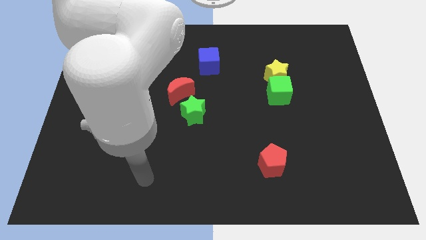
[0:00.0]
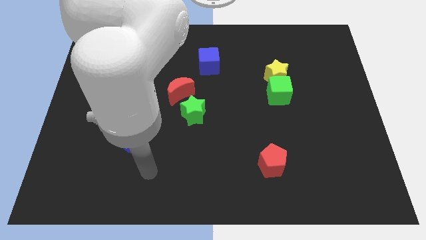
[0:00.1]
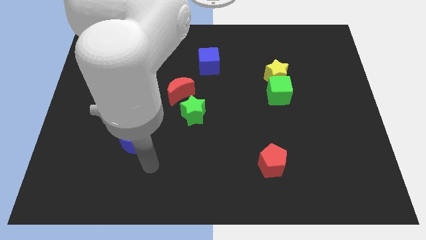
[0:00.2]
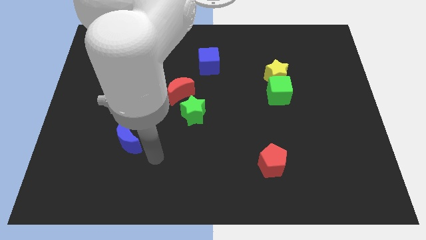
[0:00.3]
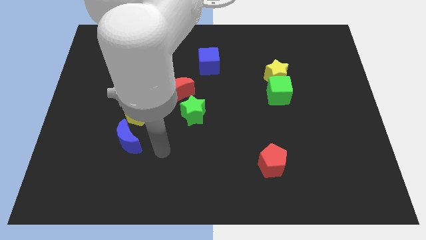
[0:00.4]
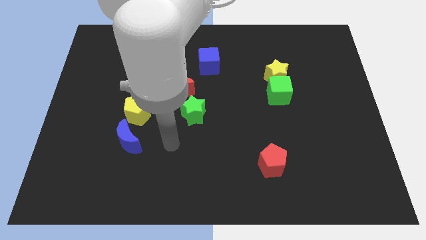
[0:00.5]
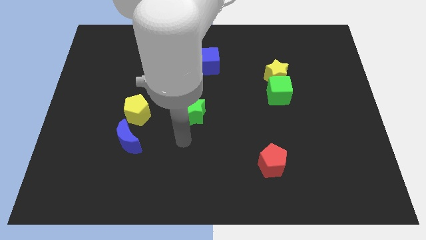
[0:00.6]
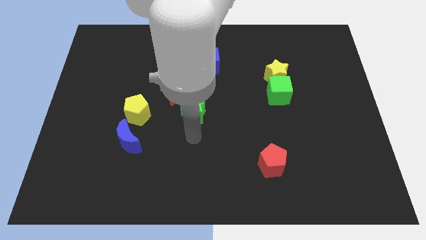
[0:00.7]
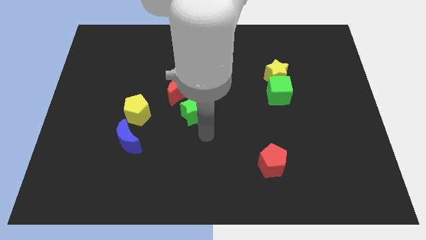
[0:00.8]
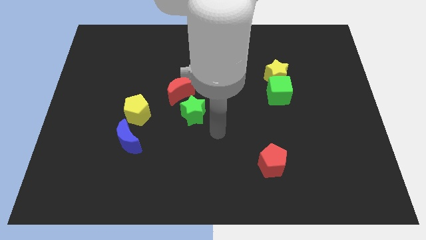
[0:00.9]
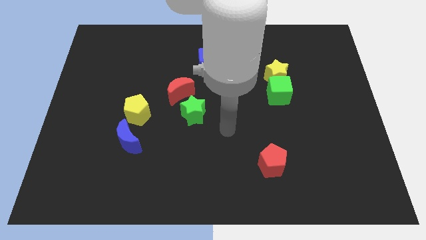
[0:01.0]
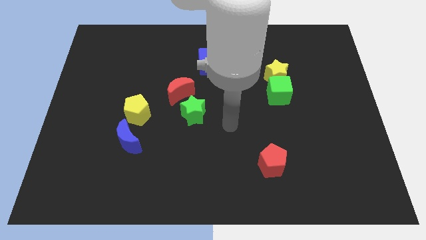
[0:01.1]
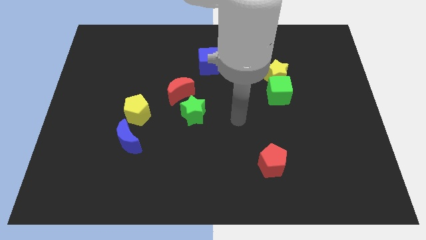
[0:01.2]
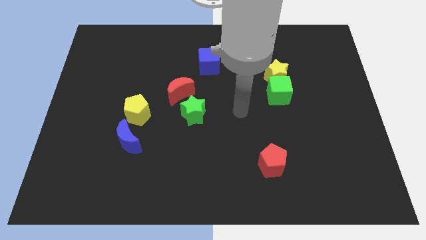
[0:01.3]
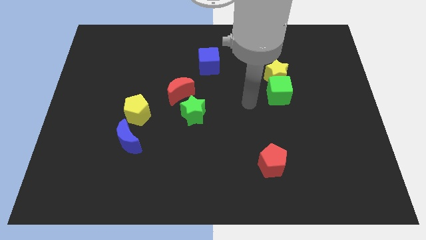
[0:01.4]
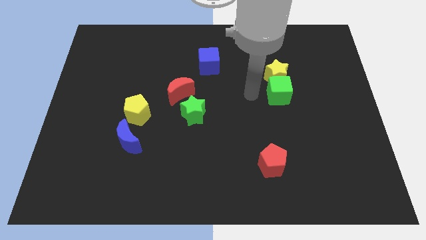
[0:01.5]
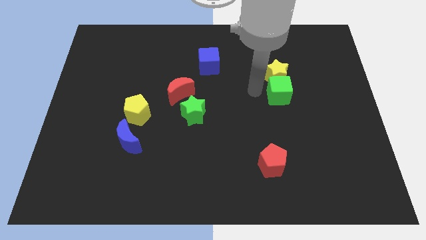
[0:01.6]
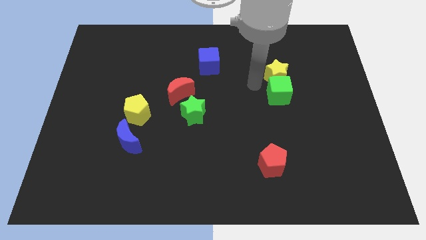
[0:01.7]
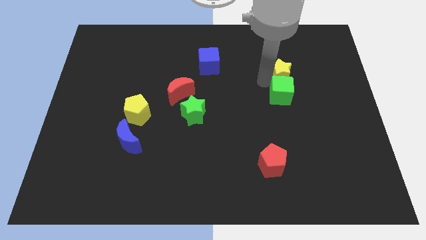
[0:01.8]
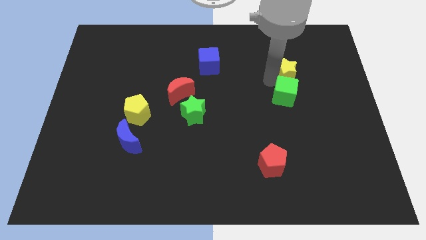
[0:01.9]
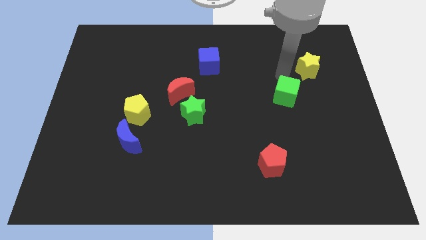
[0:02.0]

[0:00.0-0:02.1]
move the green cube away from the yellow star

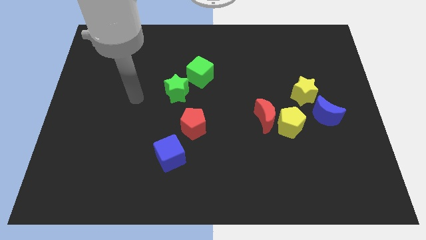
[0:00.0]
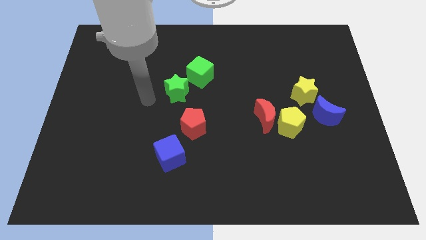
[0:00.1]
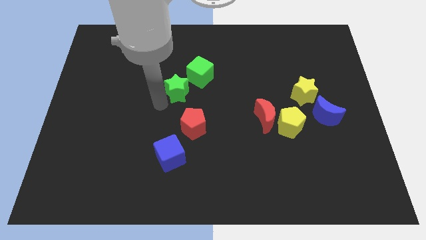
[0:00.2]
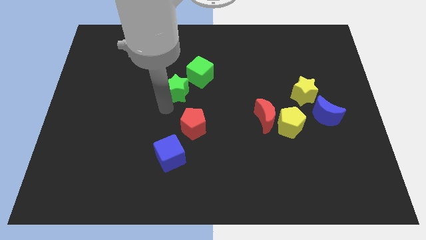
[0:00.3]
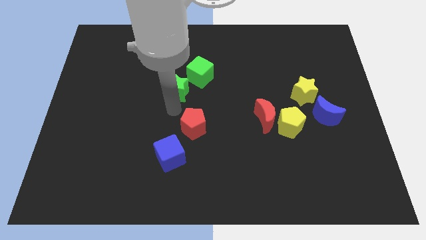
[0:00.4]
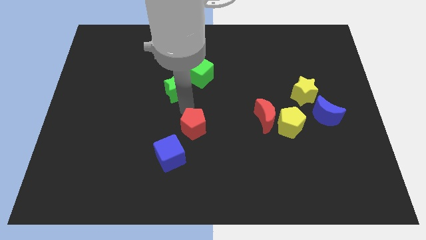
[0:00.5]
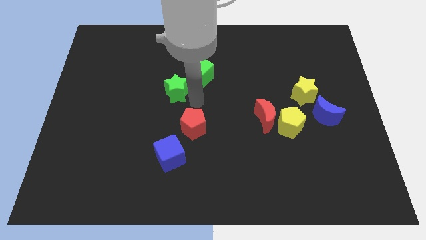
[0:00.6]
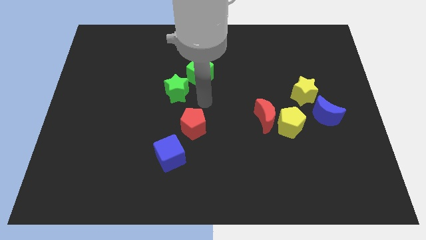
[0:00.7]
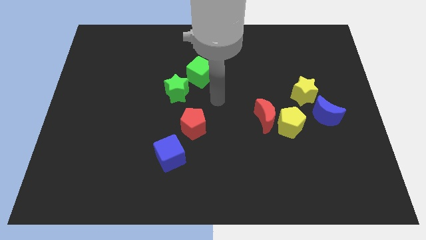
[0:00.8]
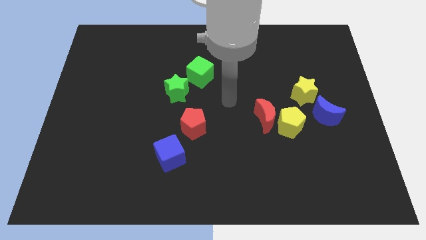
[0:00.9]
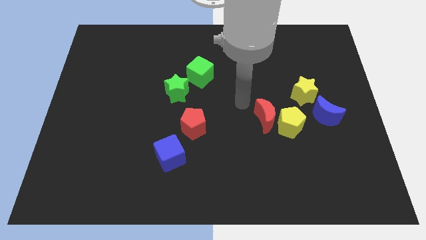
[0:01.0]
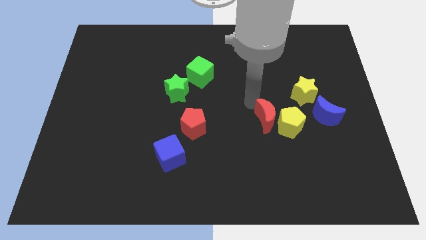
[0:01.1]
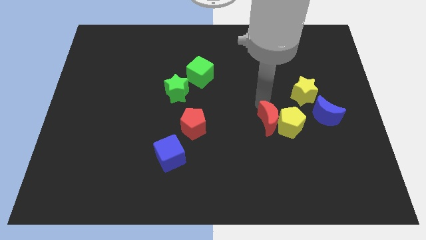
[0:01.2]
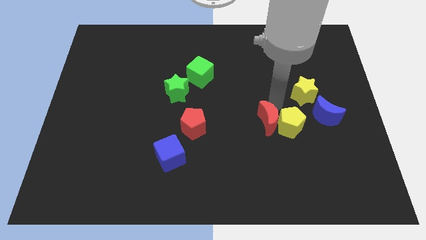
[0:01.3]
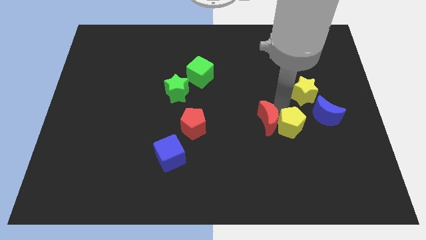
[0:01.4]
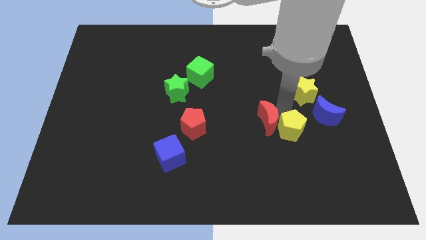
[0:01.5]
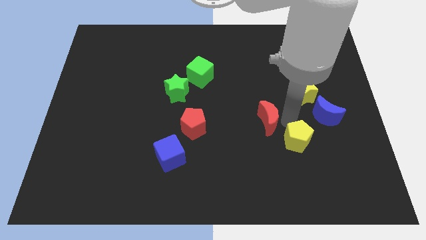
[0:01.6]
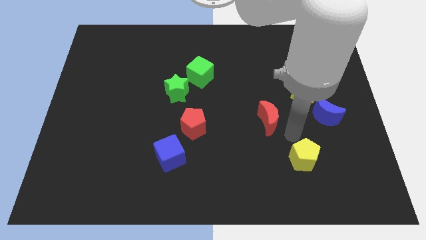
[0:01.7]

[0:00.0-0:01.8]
pull the red moon apart from the yellow pentagon

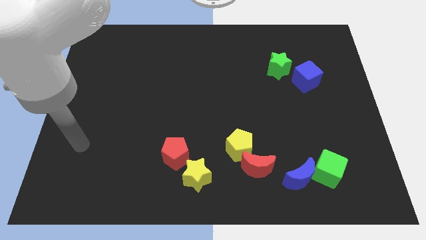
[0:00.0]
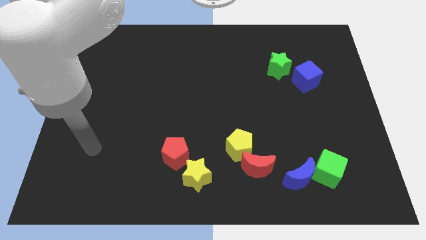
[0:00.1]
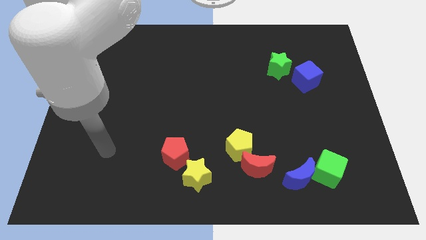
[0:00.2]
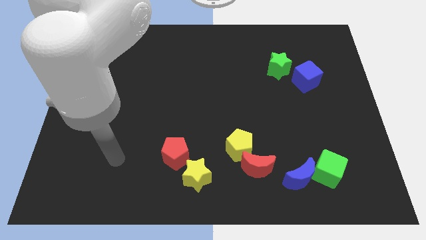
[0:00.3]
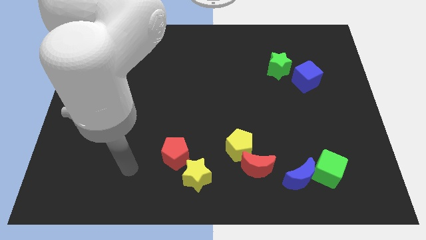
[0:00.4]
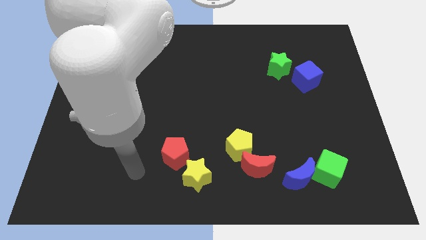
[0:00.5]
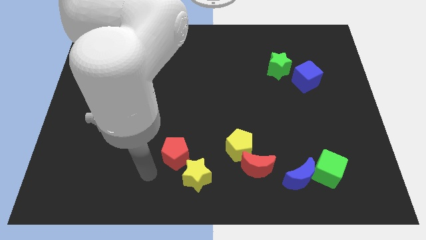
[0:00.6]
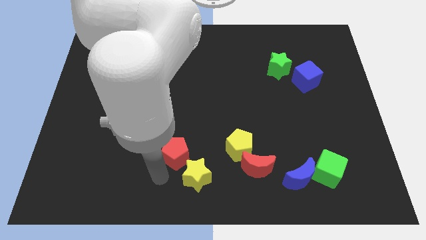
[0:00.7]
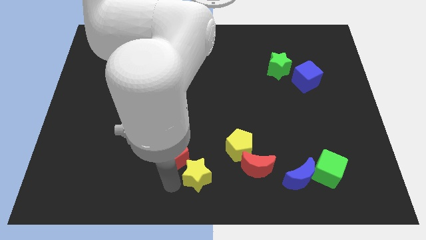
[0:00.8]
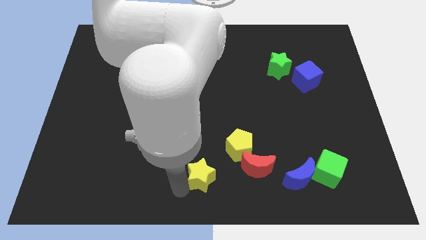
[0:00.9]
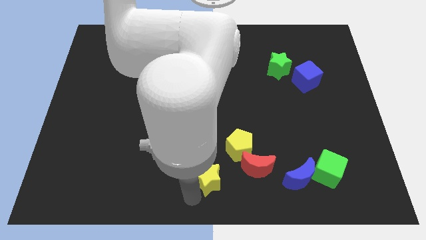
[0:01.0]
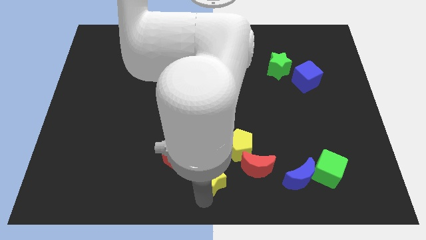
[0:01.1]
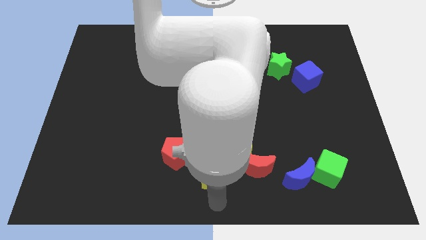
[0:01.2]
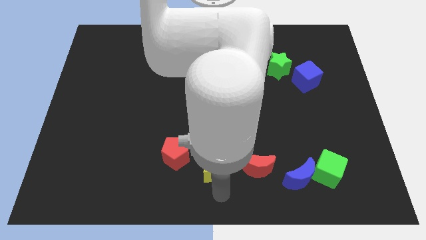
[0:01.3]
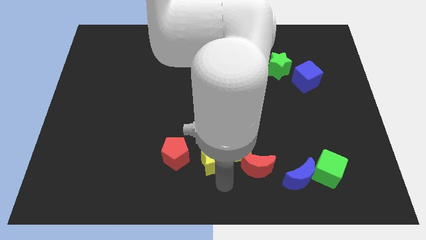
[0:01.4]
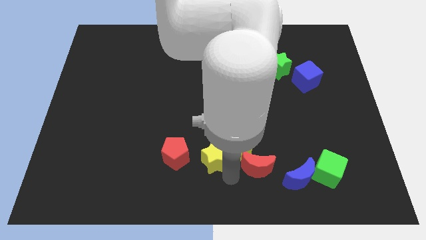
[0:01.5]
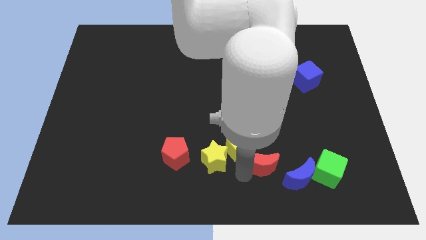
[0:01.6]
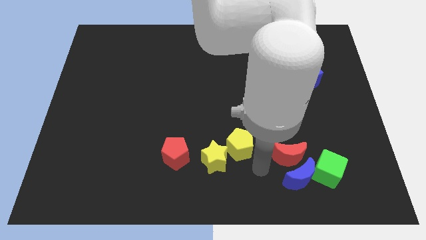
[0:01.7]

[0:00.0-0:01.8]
move the yellow pentagon away from the red moon

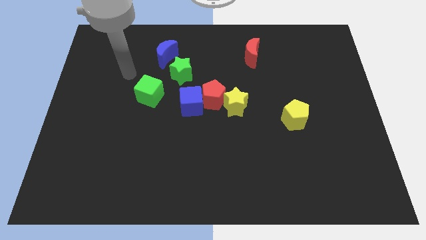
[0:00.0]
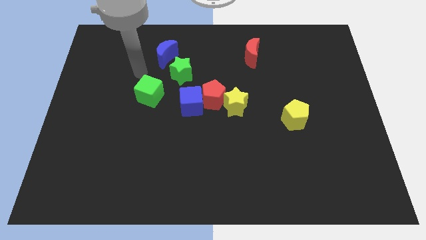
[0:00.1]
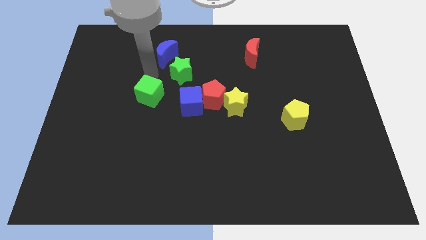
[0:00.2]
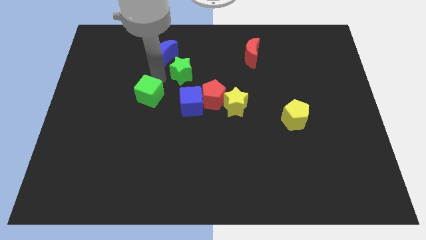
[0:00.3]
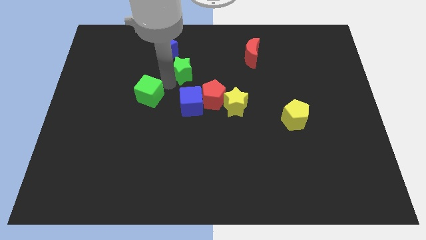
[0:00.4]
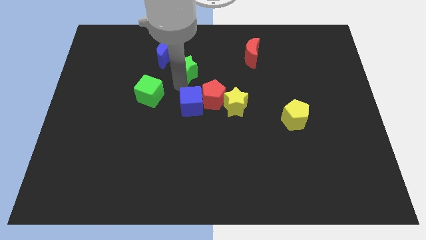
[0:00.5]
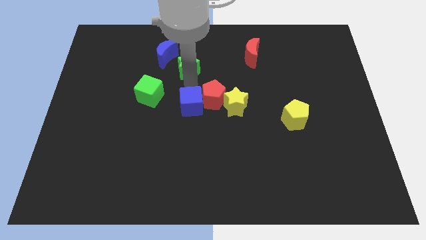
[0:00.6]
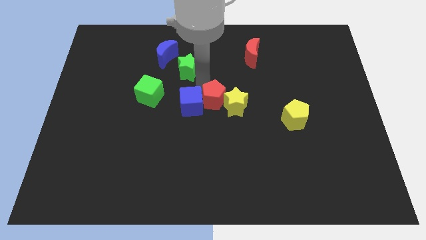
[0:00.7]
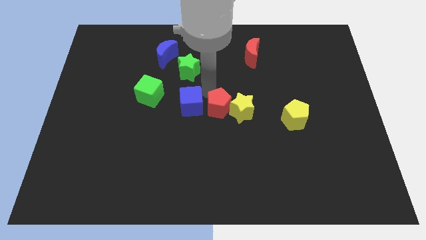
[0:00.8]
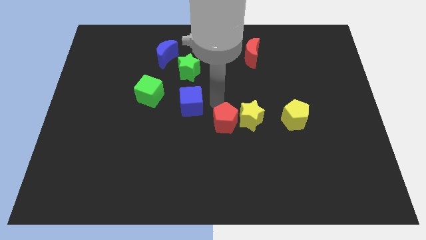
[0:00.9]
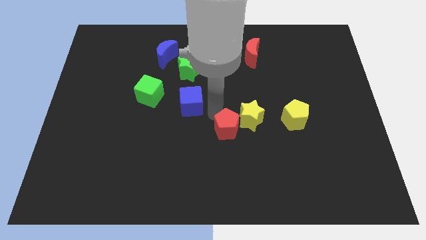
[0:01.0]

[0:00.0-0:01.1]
pull the blue cube apart from the red pentagon

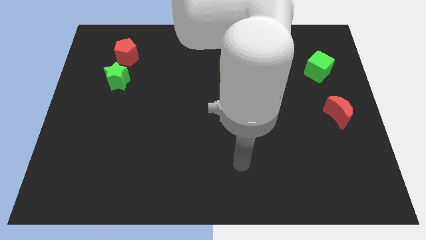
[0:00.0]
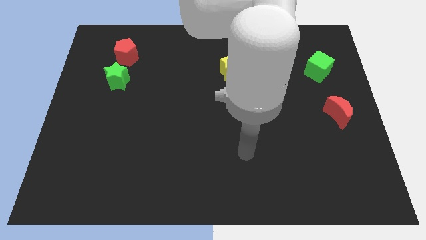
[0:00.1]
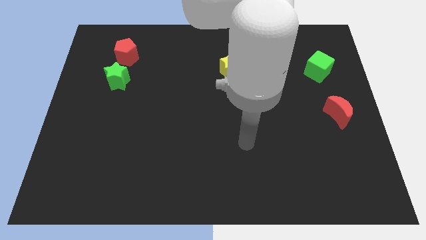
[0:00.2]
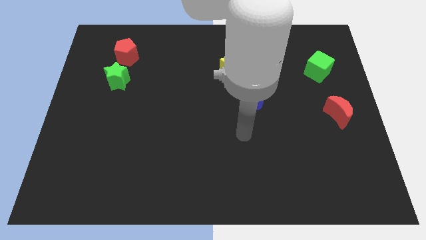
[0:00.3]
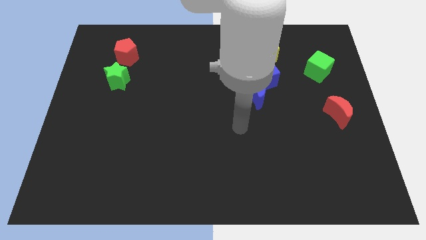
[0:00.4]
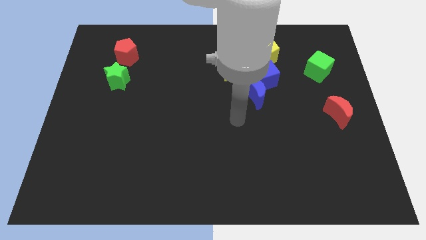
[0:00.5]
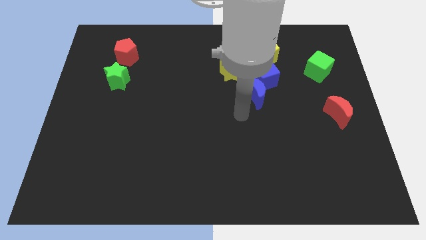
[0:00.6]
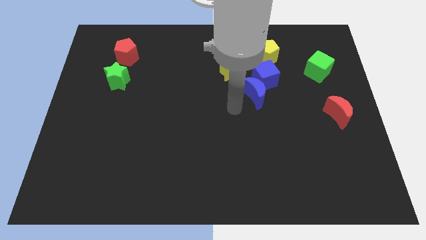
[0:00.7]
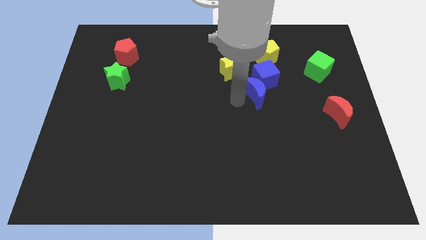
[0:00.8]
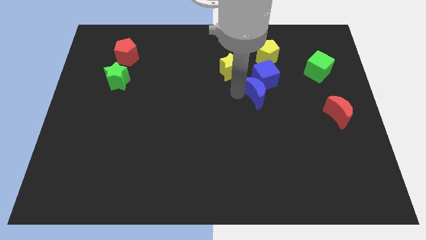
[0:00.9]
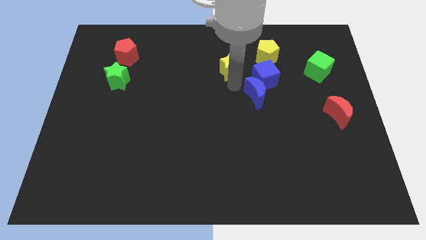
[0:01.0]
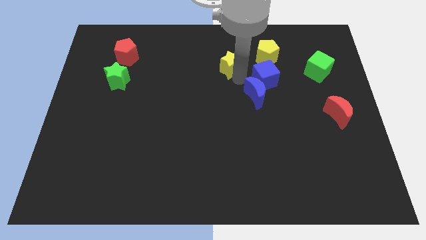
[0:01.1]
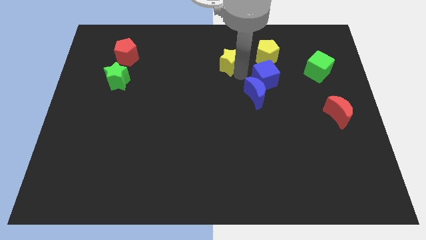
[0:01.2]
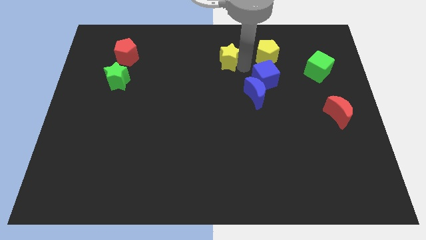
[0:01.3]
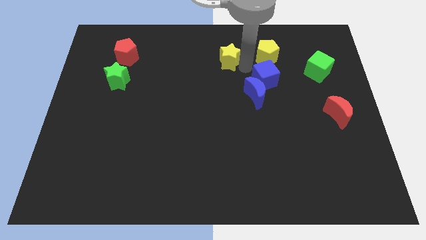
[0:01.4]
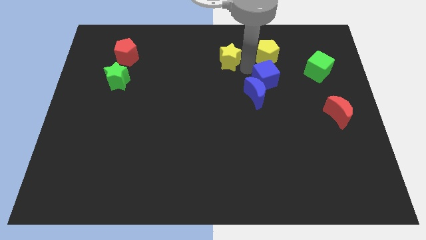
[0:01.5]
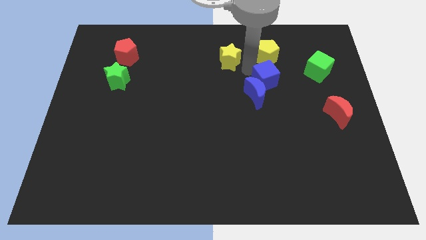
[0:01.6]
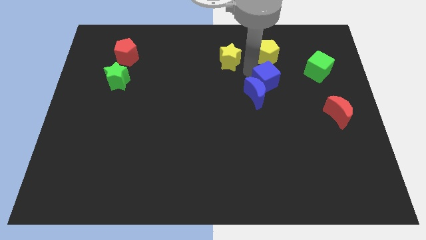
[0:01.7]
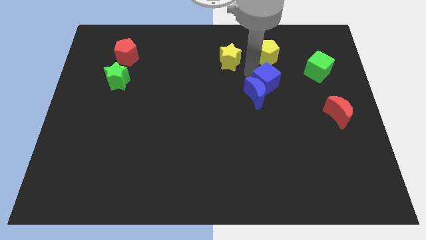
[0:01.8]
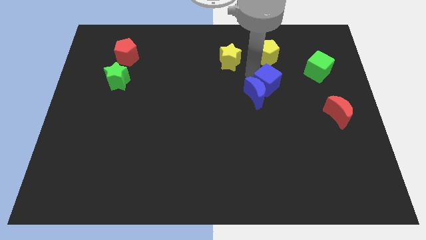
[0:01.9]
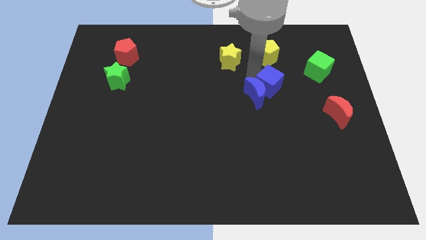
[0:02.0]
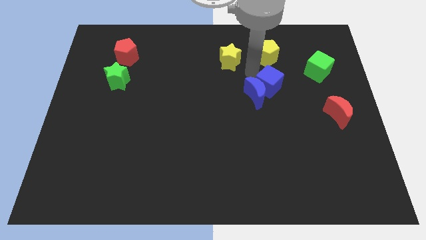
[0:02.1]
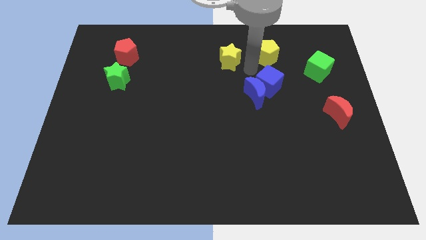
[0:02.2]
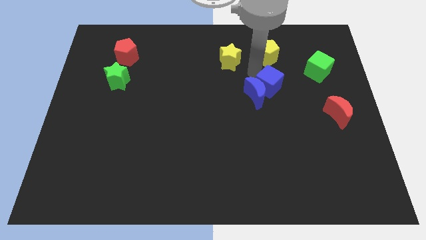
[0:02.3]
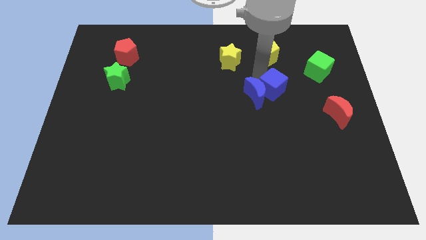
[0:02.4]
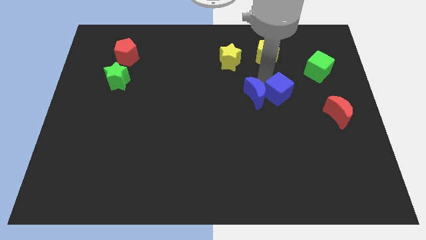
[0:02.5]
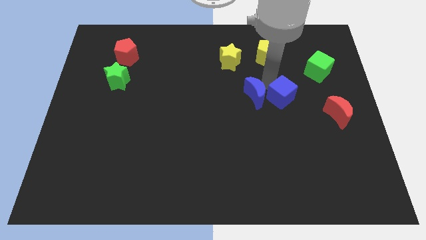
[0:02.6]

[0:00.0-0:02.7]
pull the blue cube apart from the clump
